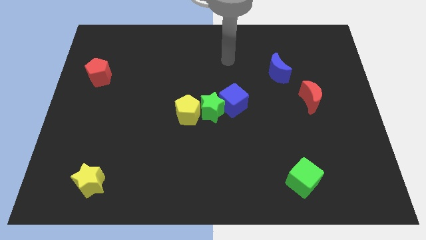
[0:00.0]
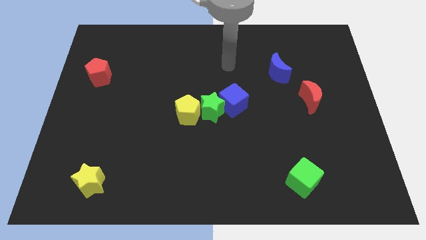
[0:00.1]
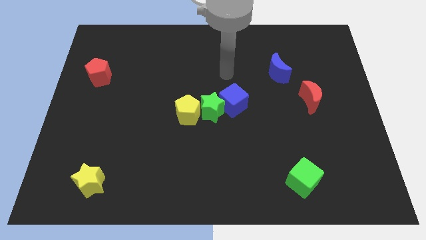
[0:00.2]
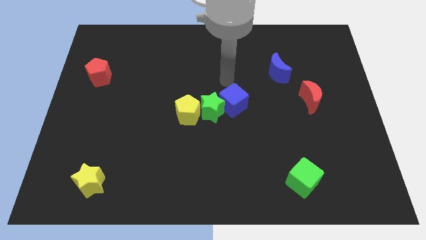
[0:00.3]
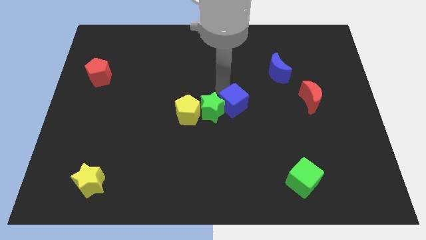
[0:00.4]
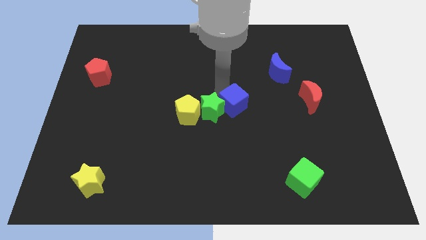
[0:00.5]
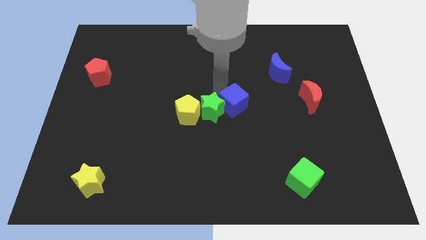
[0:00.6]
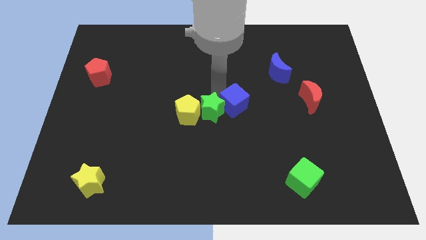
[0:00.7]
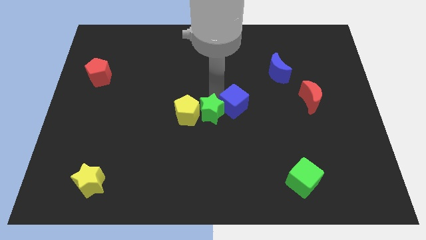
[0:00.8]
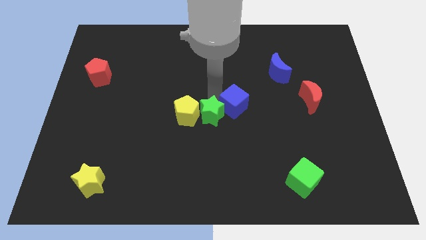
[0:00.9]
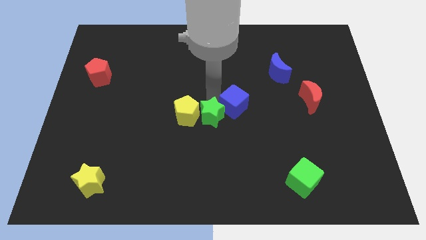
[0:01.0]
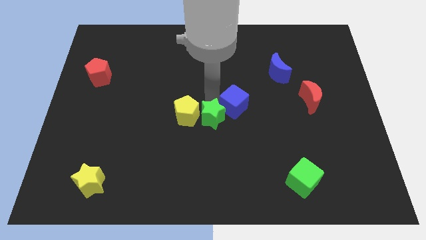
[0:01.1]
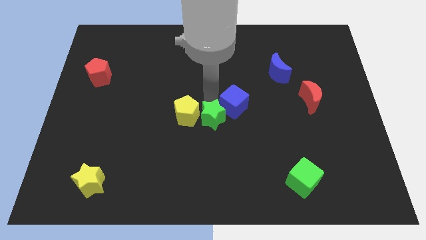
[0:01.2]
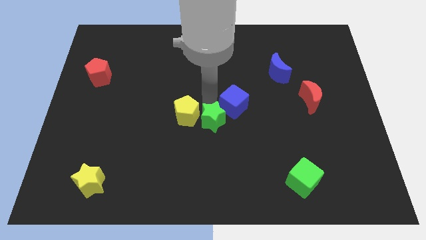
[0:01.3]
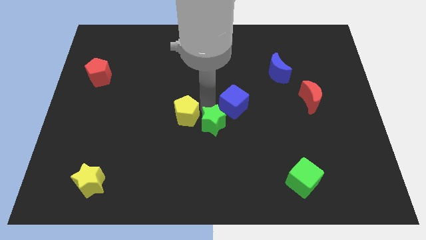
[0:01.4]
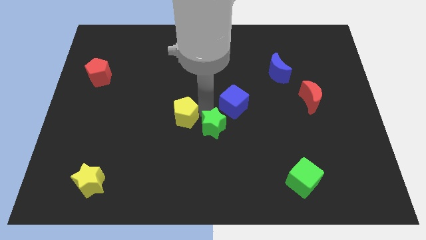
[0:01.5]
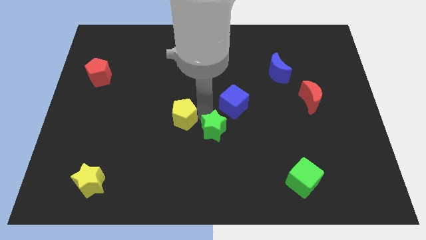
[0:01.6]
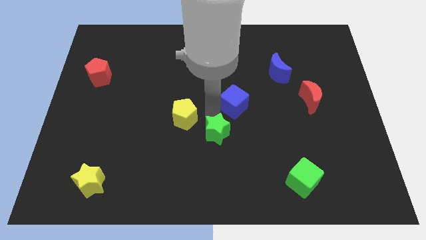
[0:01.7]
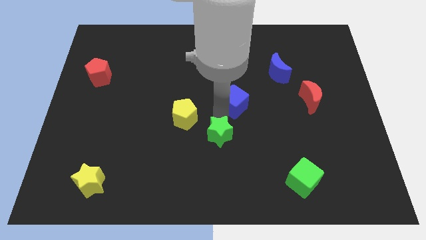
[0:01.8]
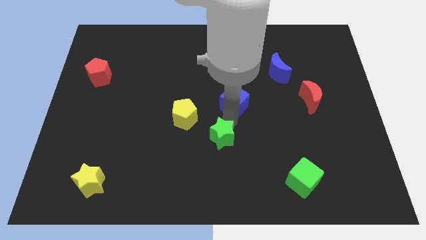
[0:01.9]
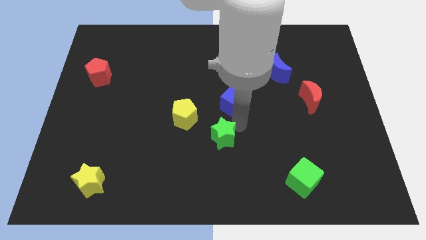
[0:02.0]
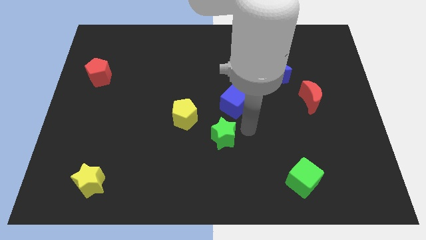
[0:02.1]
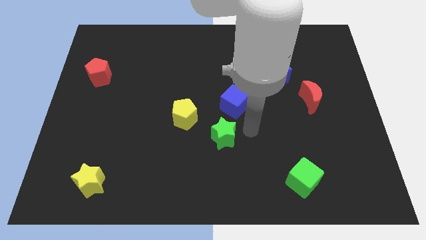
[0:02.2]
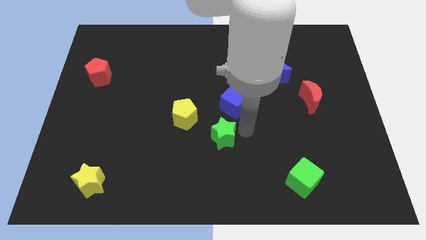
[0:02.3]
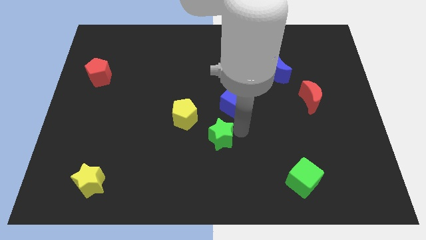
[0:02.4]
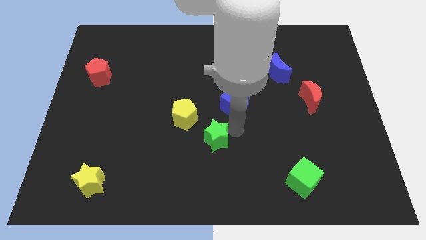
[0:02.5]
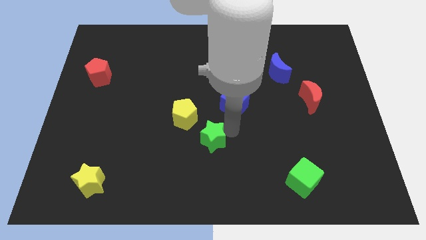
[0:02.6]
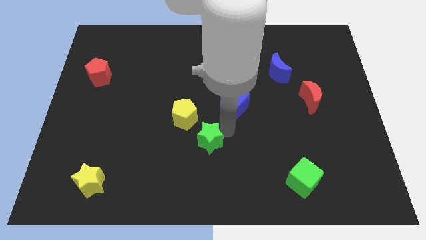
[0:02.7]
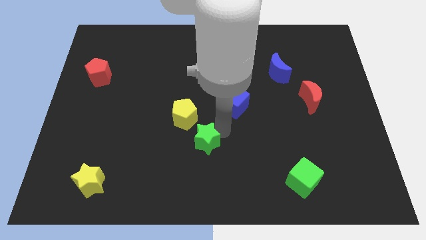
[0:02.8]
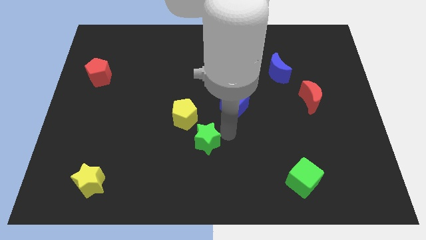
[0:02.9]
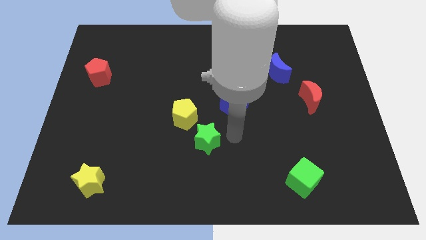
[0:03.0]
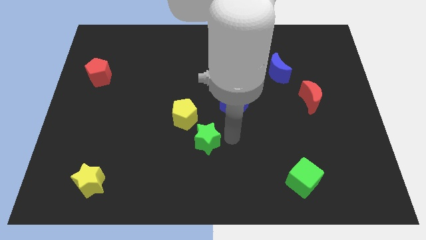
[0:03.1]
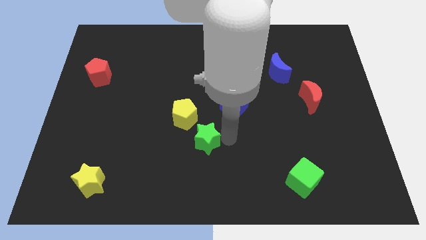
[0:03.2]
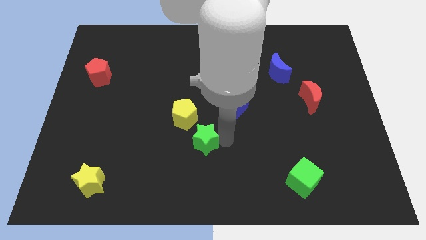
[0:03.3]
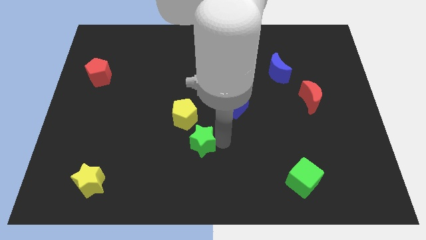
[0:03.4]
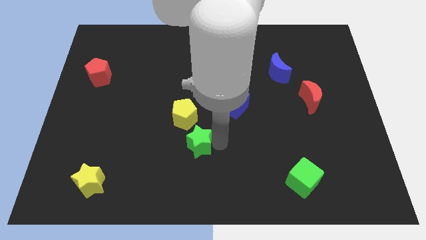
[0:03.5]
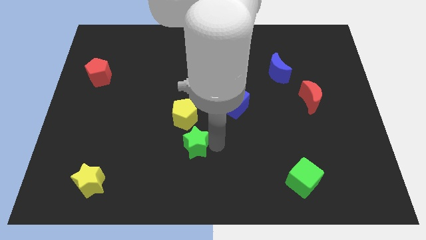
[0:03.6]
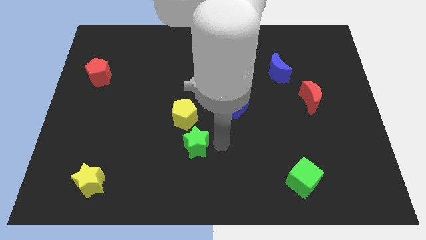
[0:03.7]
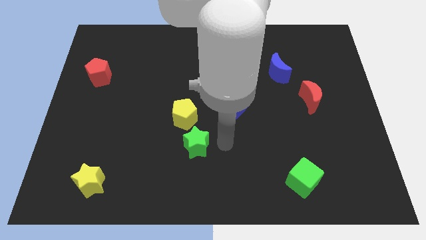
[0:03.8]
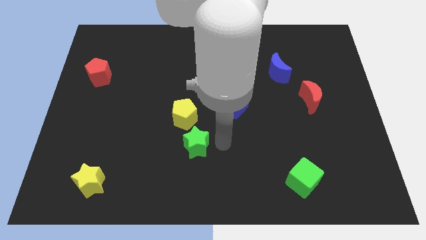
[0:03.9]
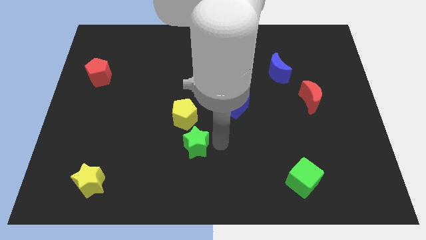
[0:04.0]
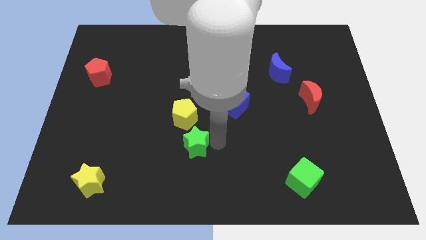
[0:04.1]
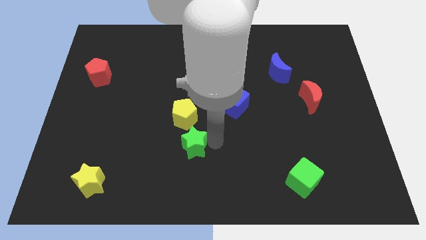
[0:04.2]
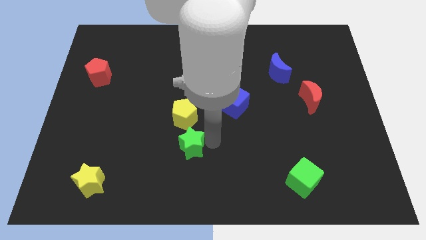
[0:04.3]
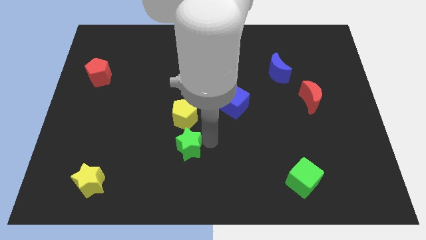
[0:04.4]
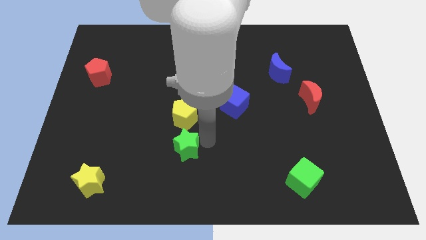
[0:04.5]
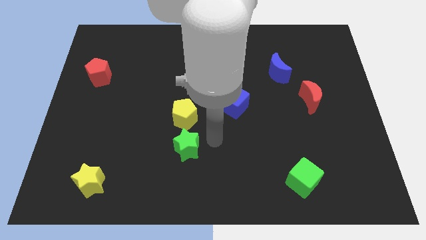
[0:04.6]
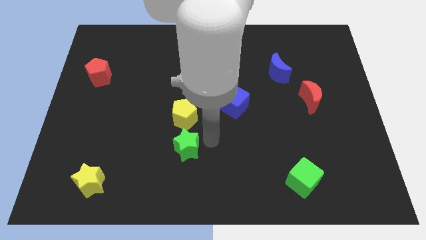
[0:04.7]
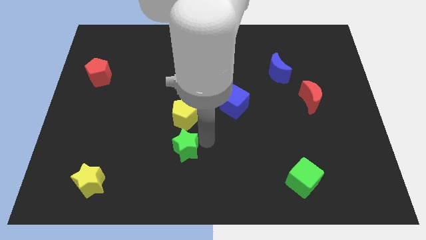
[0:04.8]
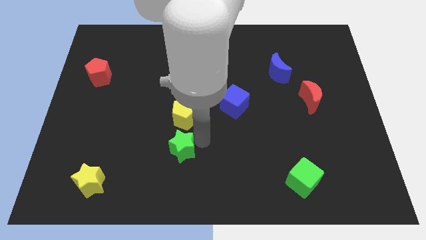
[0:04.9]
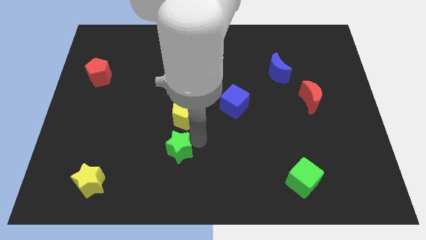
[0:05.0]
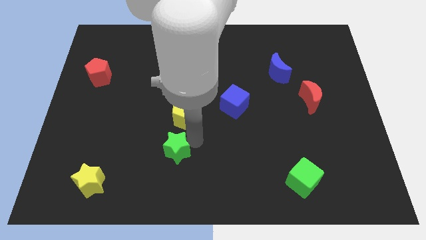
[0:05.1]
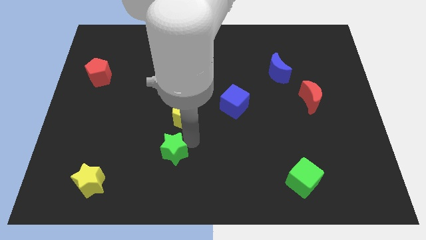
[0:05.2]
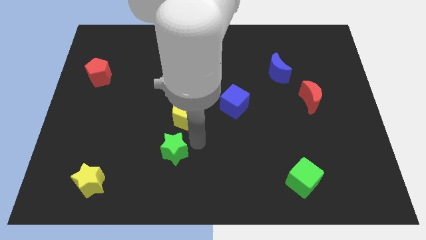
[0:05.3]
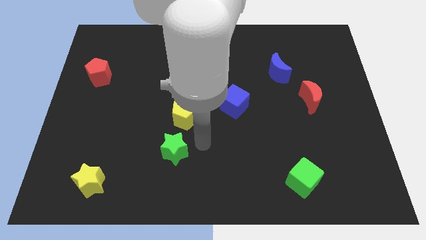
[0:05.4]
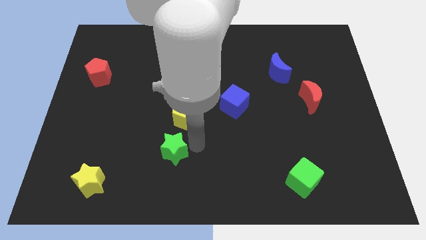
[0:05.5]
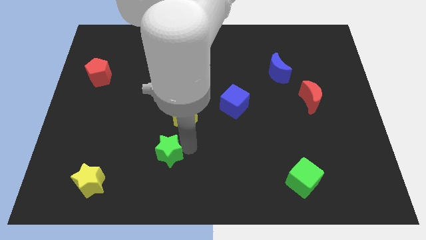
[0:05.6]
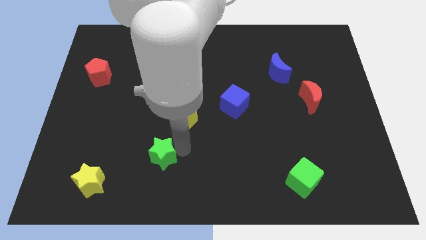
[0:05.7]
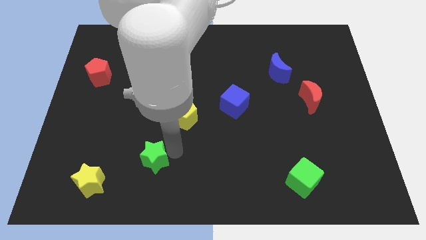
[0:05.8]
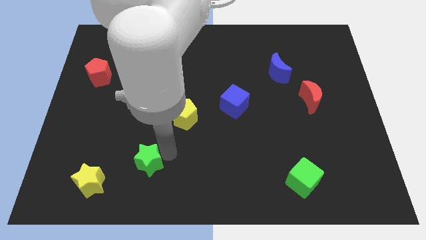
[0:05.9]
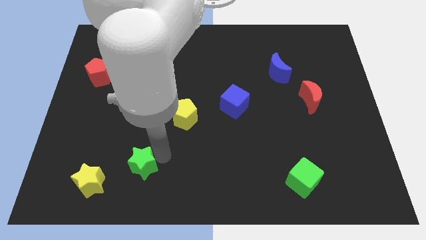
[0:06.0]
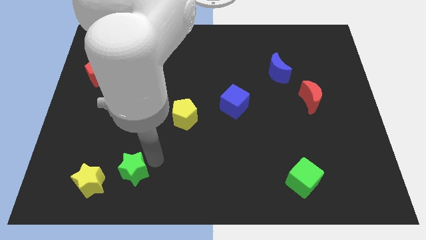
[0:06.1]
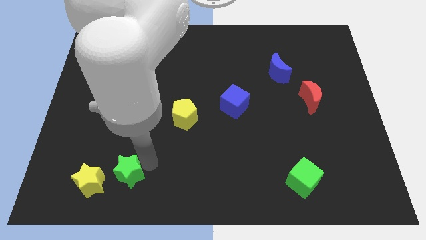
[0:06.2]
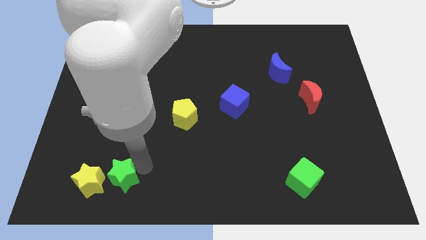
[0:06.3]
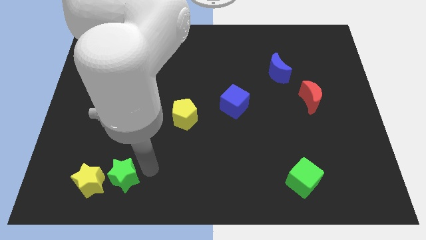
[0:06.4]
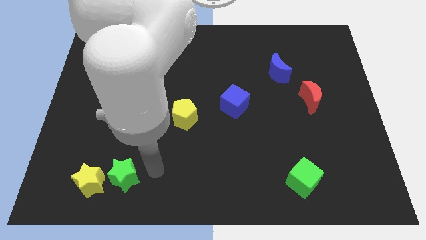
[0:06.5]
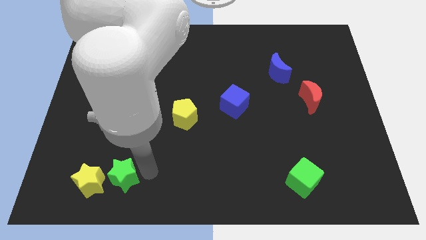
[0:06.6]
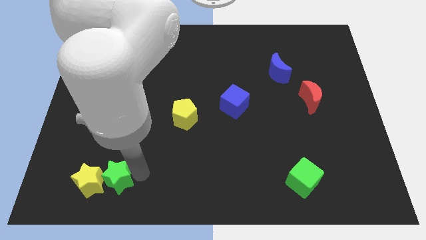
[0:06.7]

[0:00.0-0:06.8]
move the green star towards the yellow star
